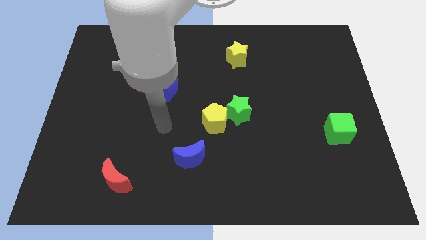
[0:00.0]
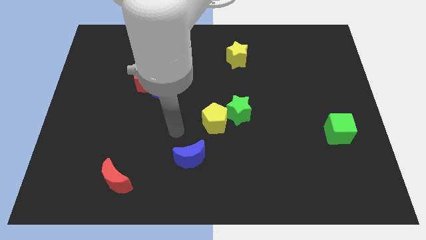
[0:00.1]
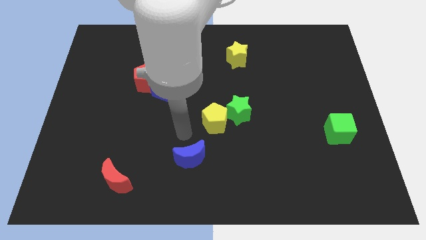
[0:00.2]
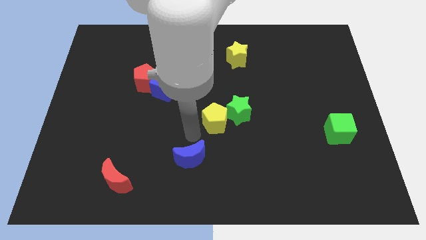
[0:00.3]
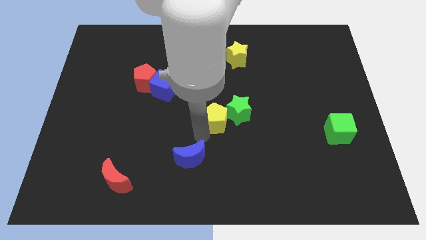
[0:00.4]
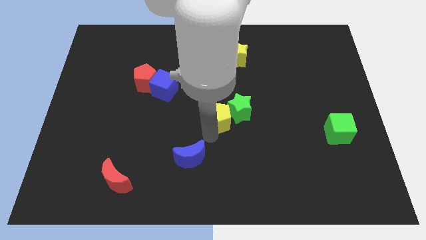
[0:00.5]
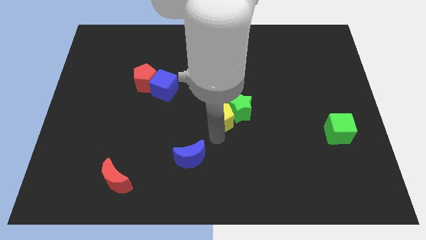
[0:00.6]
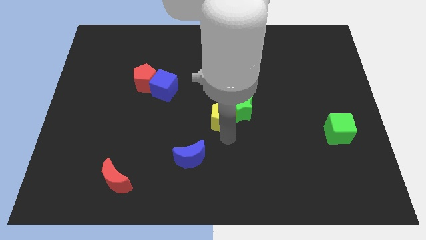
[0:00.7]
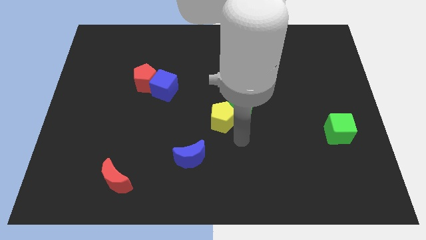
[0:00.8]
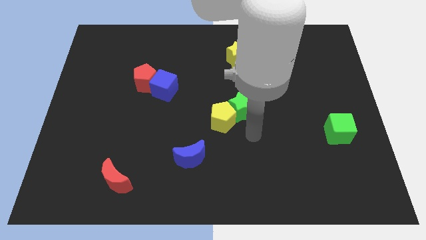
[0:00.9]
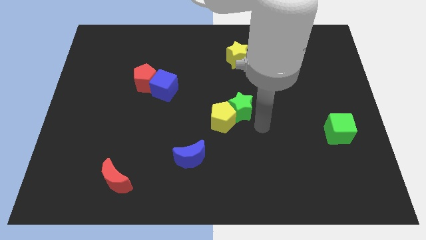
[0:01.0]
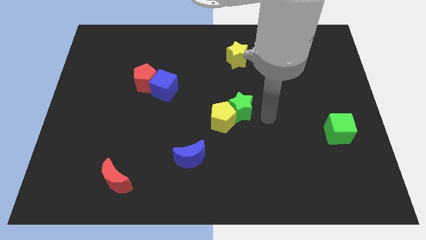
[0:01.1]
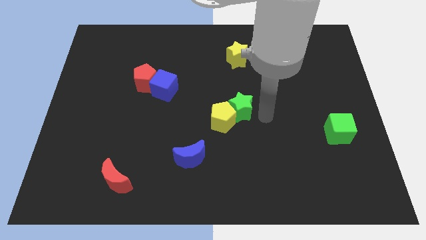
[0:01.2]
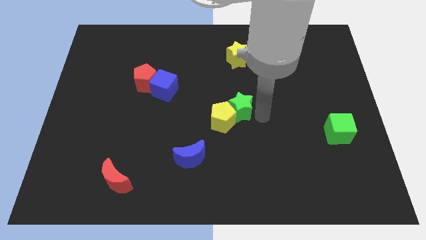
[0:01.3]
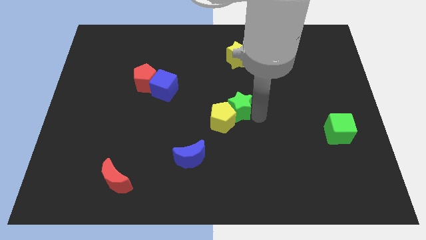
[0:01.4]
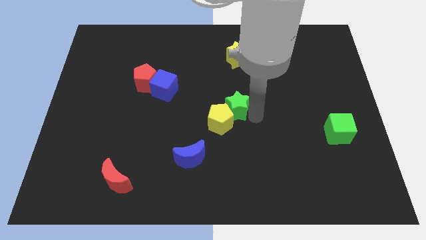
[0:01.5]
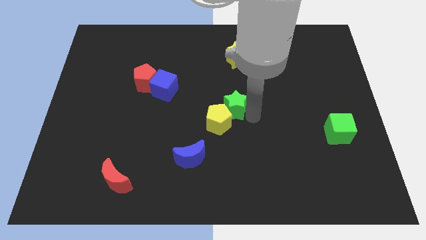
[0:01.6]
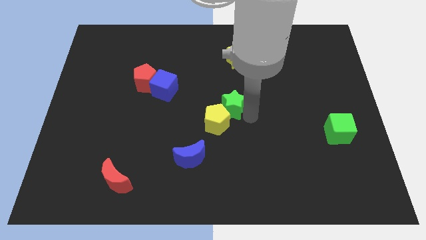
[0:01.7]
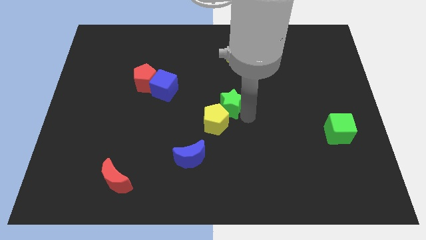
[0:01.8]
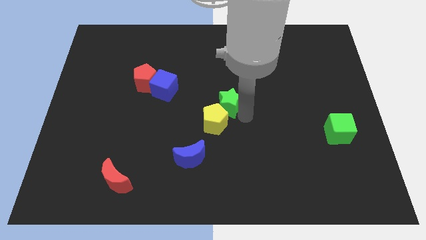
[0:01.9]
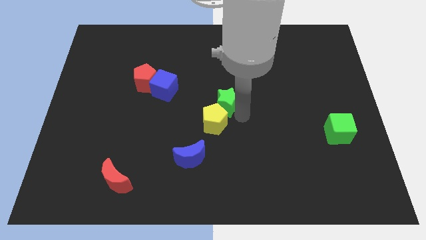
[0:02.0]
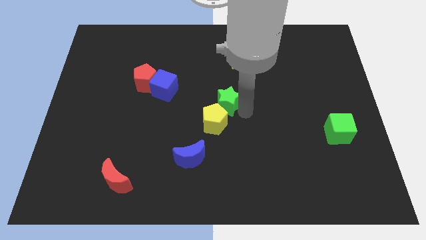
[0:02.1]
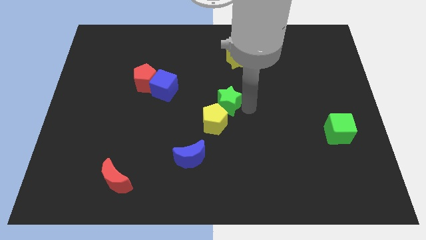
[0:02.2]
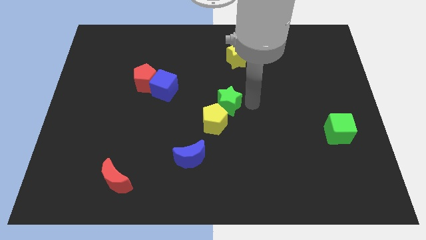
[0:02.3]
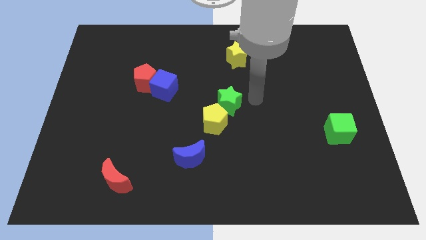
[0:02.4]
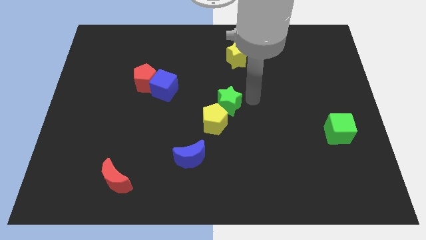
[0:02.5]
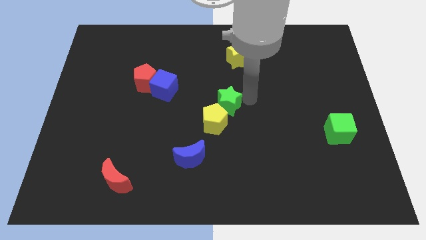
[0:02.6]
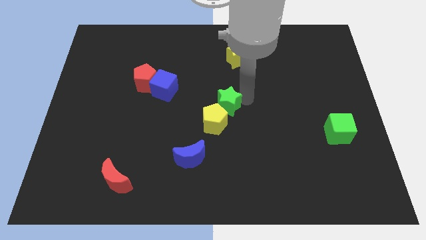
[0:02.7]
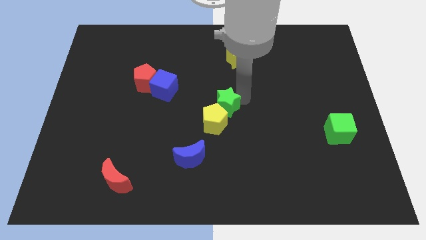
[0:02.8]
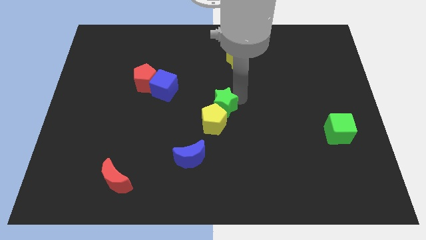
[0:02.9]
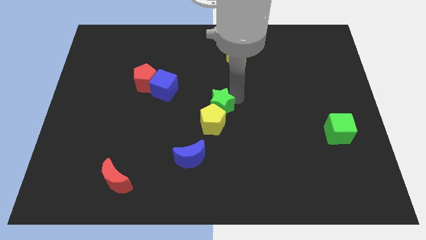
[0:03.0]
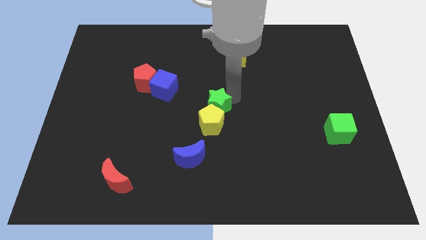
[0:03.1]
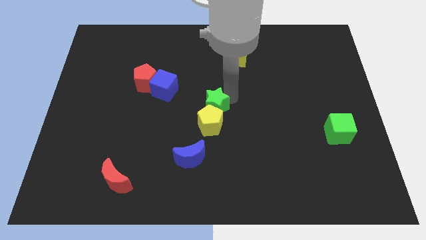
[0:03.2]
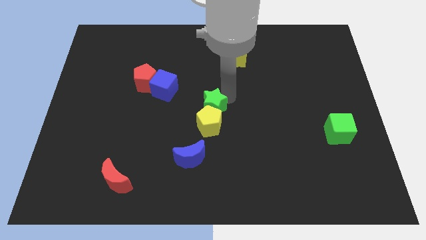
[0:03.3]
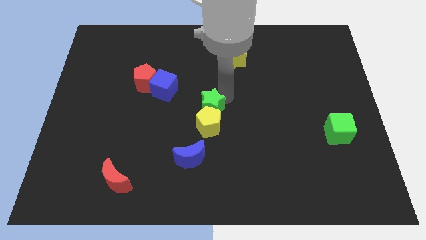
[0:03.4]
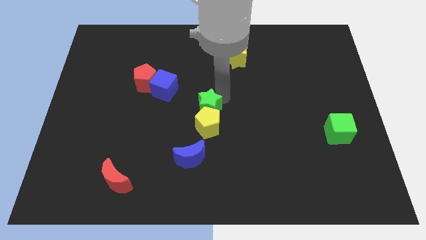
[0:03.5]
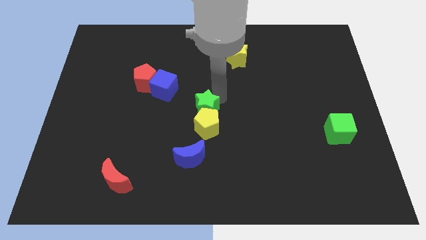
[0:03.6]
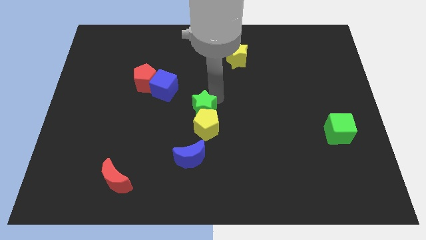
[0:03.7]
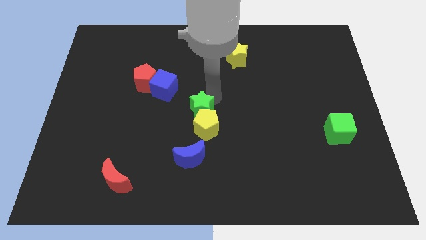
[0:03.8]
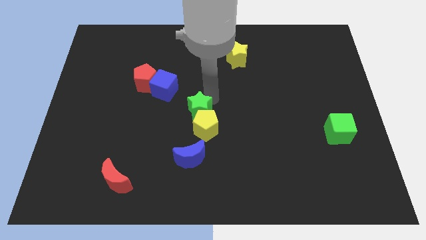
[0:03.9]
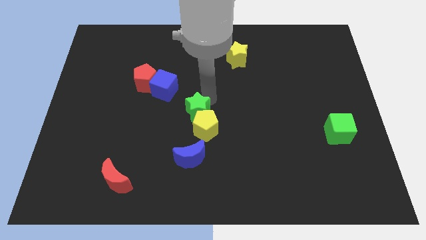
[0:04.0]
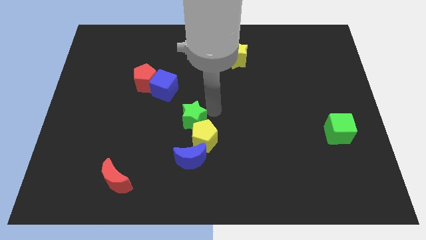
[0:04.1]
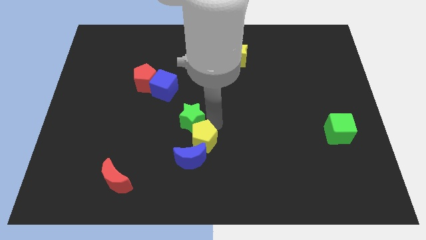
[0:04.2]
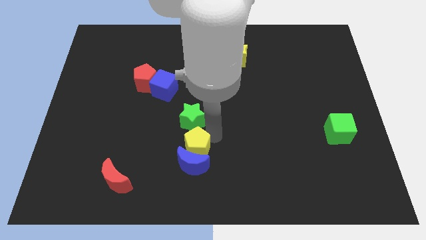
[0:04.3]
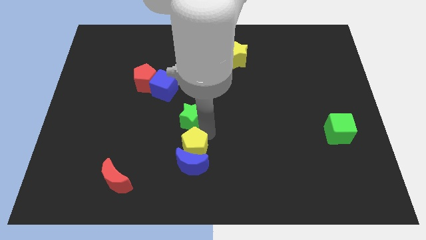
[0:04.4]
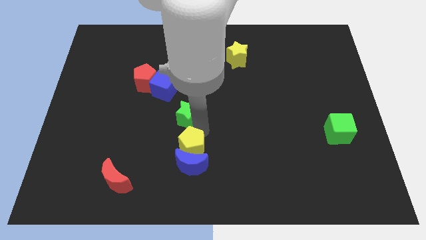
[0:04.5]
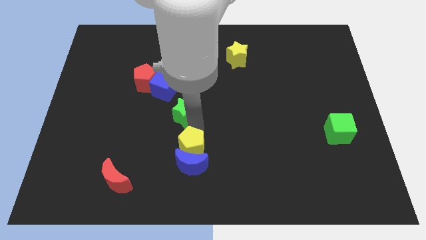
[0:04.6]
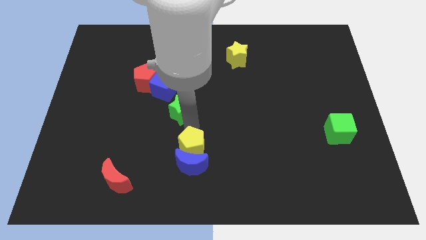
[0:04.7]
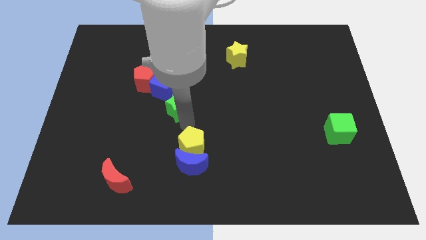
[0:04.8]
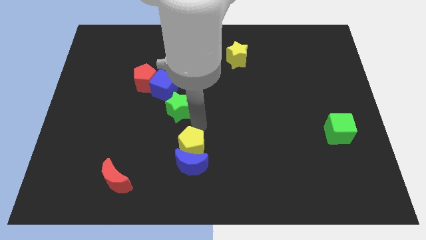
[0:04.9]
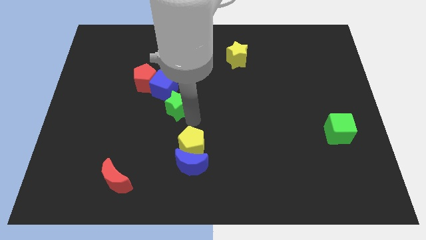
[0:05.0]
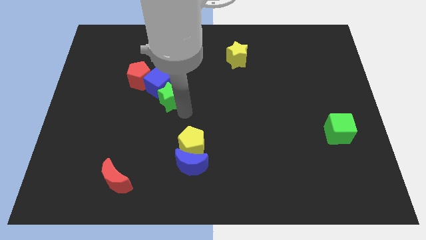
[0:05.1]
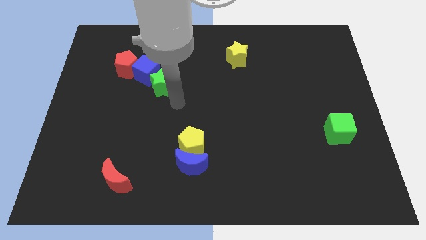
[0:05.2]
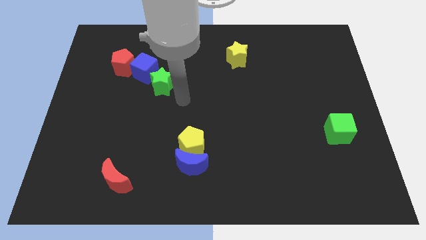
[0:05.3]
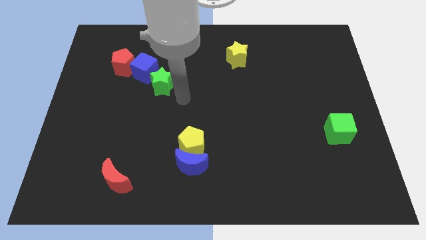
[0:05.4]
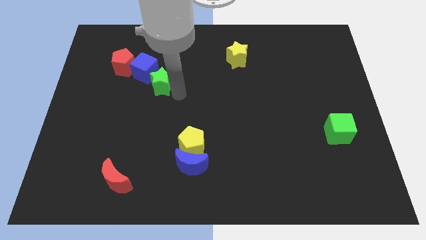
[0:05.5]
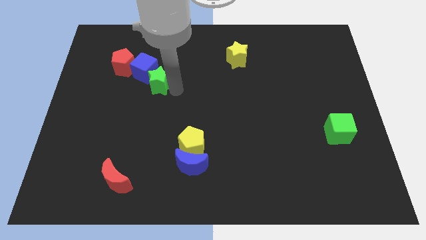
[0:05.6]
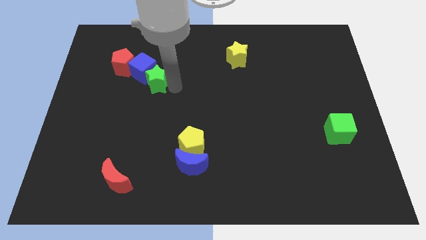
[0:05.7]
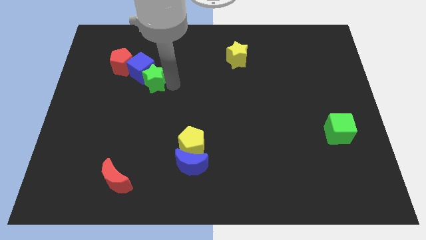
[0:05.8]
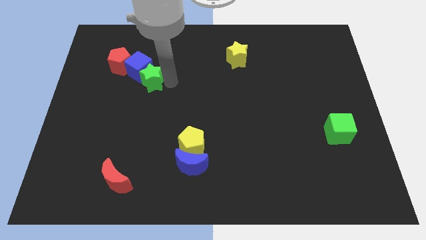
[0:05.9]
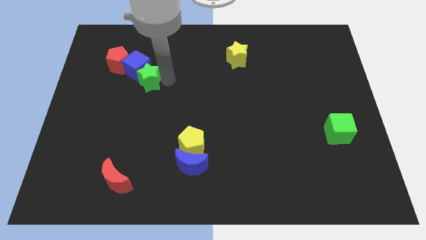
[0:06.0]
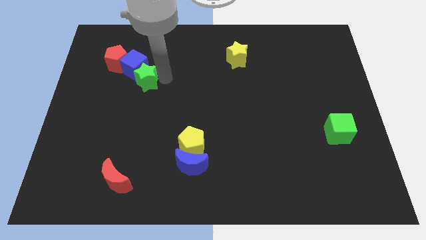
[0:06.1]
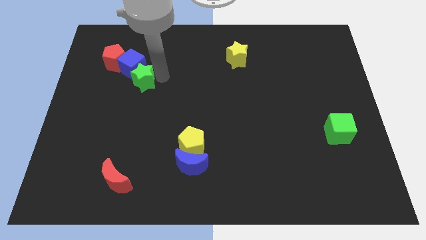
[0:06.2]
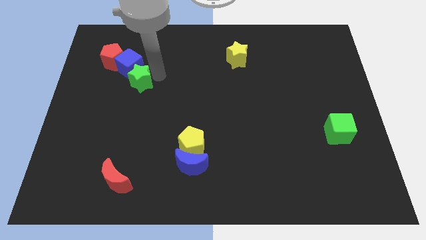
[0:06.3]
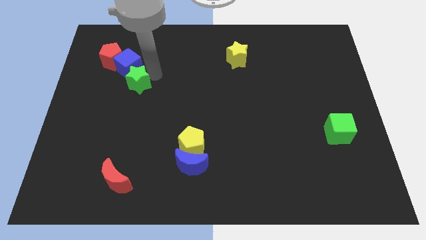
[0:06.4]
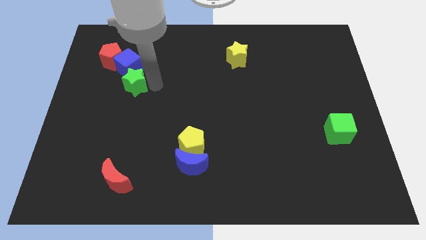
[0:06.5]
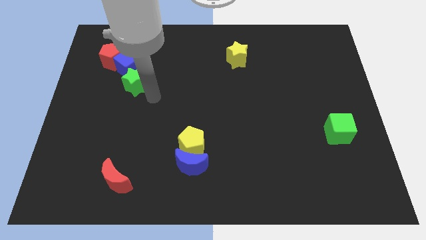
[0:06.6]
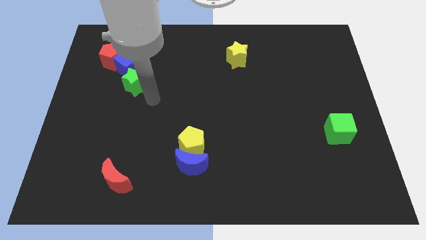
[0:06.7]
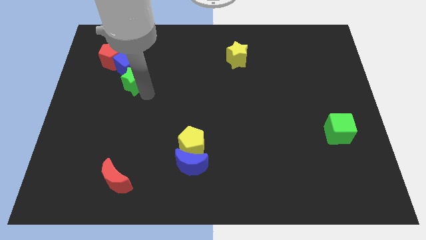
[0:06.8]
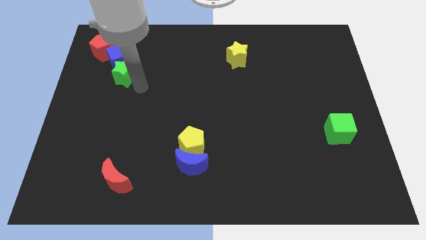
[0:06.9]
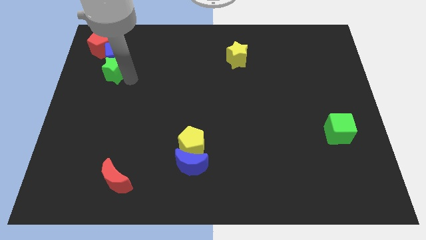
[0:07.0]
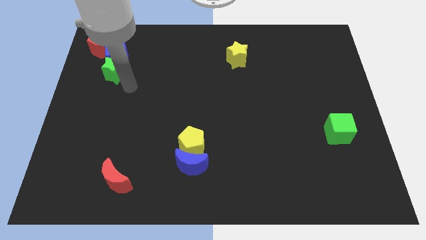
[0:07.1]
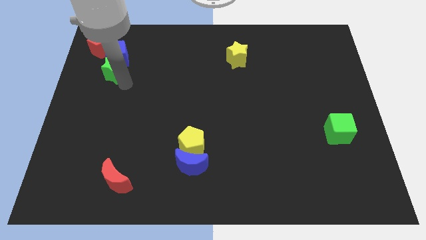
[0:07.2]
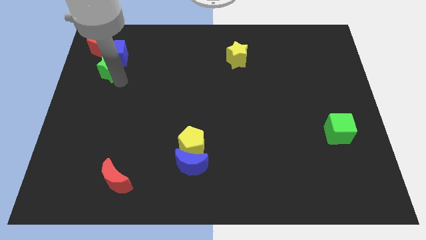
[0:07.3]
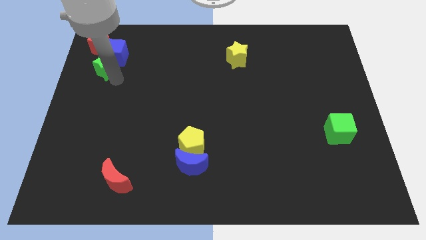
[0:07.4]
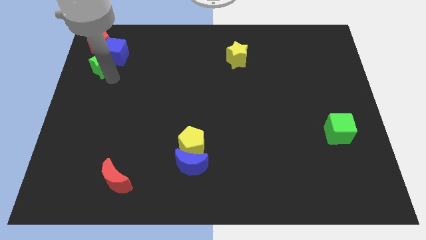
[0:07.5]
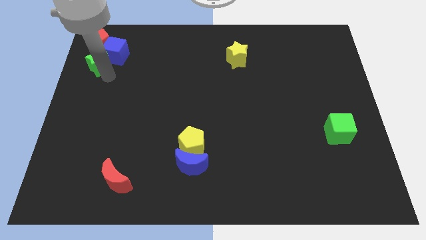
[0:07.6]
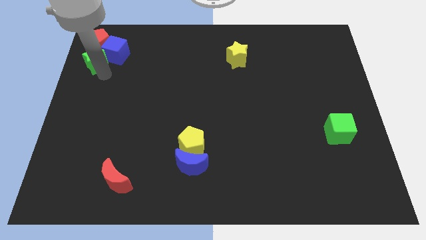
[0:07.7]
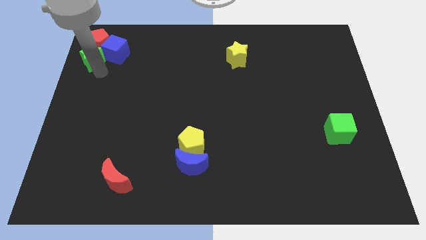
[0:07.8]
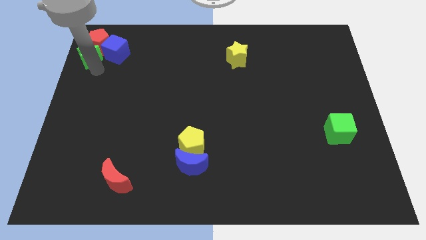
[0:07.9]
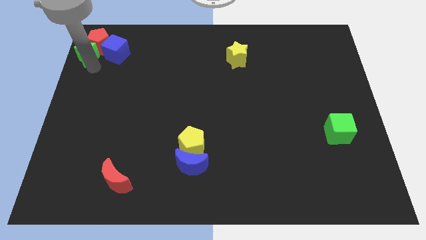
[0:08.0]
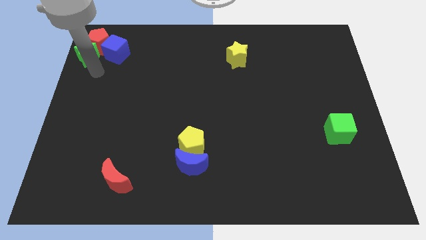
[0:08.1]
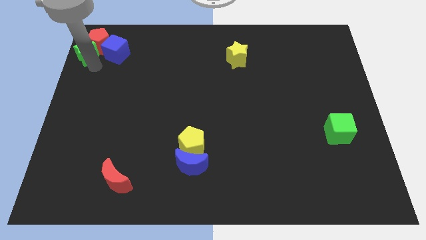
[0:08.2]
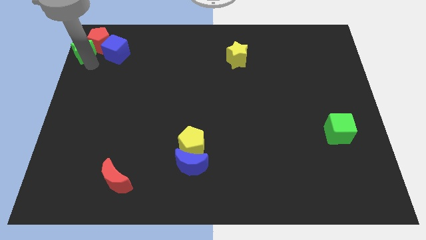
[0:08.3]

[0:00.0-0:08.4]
move the green star to the top left corner
